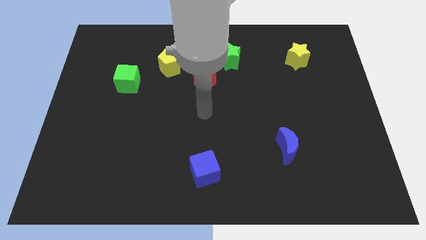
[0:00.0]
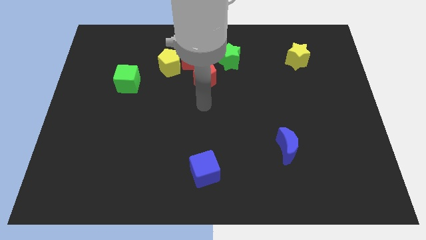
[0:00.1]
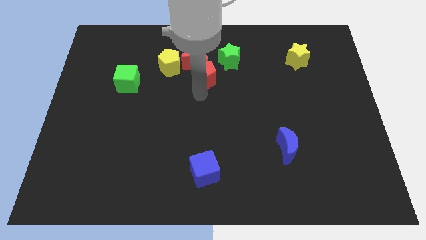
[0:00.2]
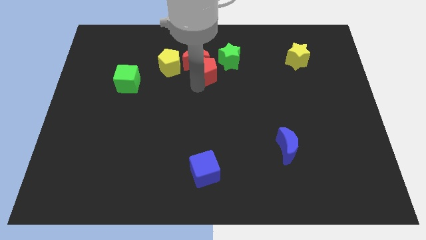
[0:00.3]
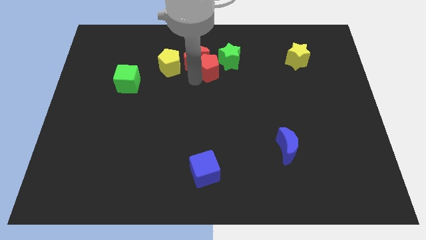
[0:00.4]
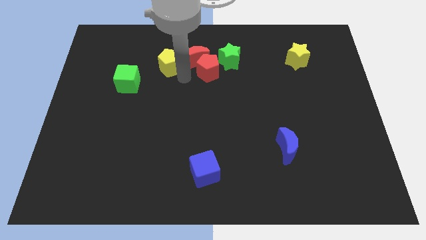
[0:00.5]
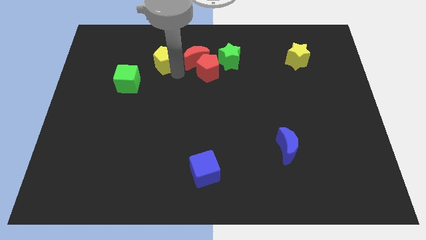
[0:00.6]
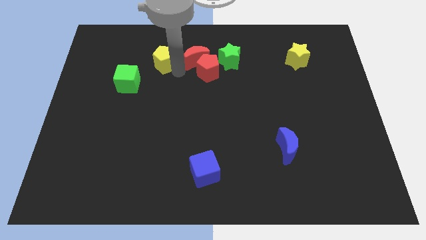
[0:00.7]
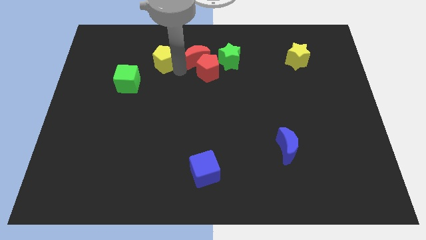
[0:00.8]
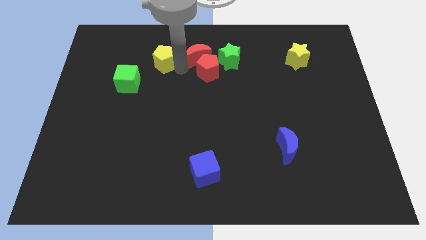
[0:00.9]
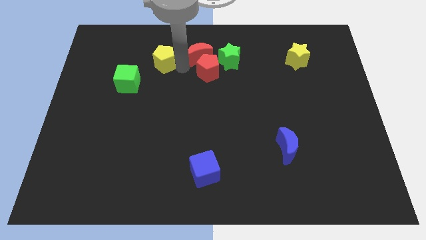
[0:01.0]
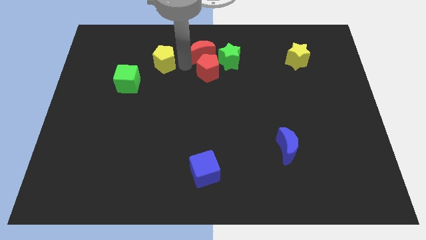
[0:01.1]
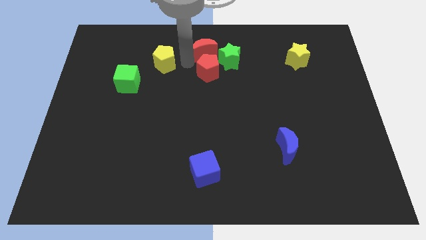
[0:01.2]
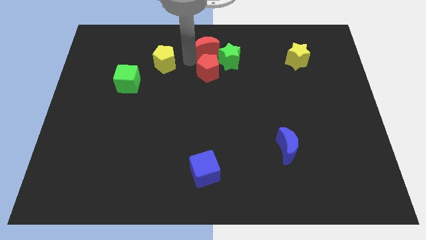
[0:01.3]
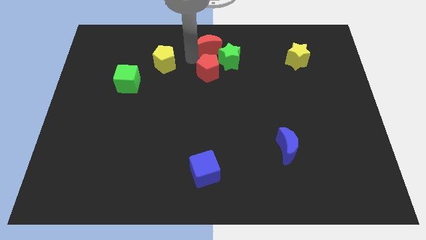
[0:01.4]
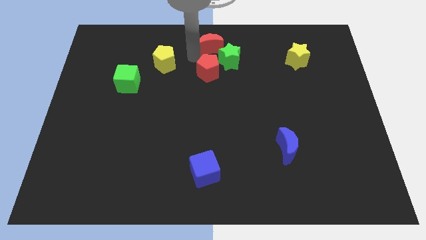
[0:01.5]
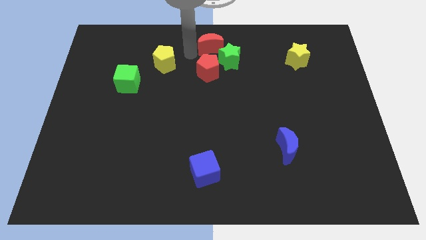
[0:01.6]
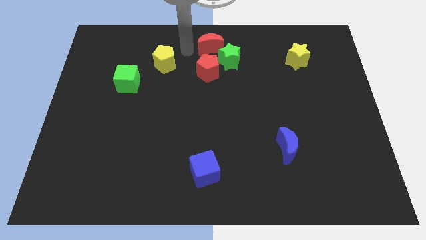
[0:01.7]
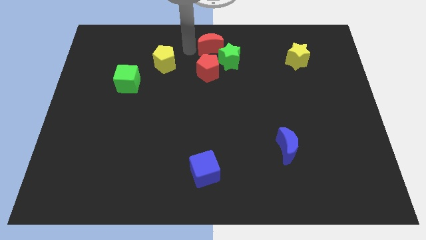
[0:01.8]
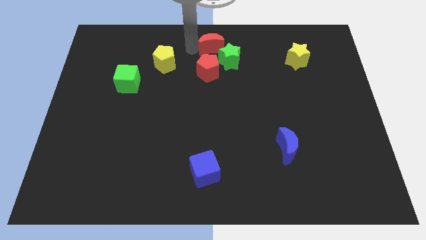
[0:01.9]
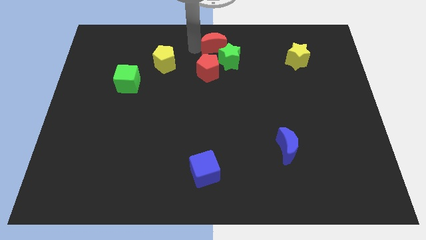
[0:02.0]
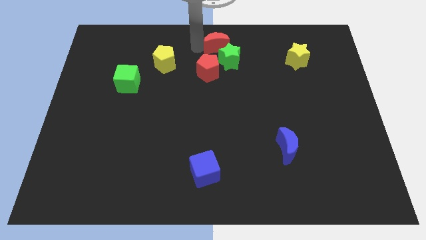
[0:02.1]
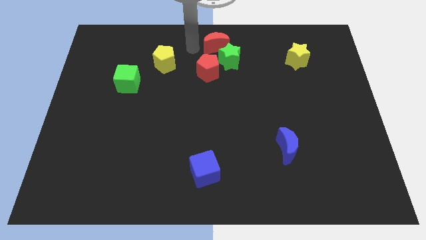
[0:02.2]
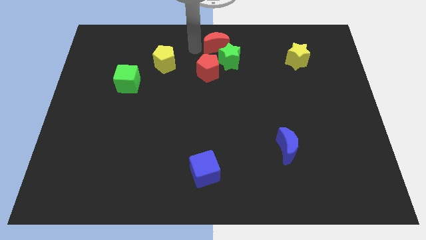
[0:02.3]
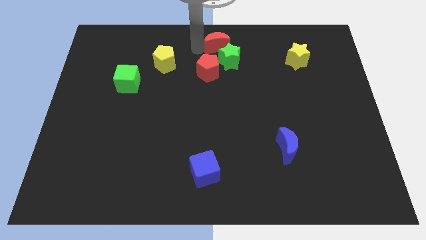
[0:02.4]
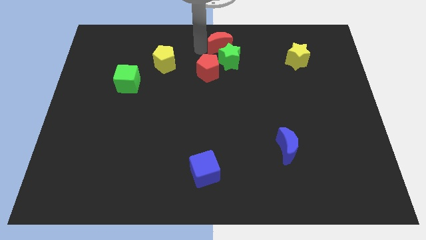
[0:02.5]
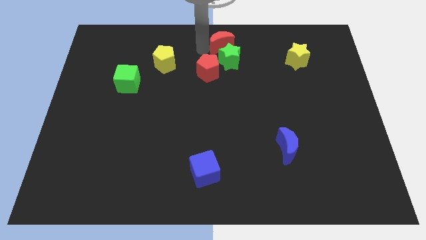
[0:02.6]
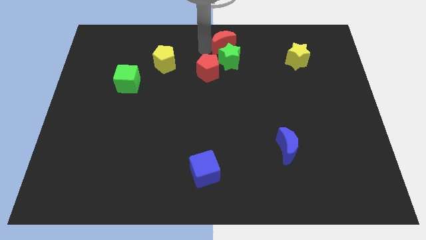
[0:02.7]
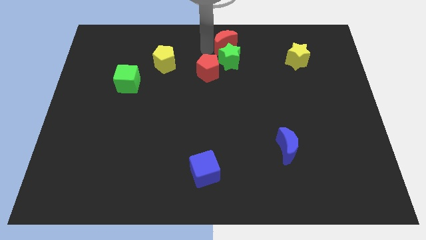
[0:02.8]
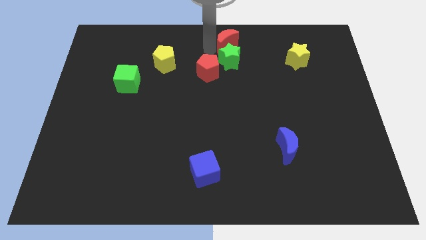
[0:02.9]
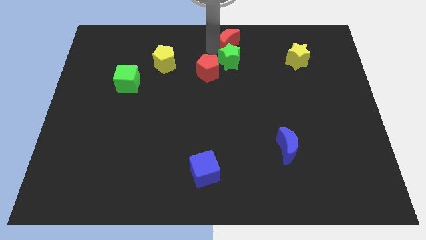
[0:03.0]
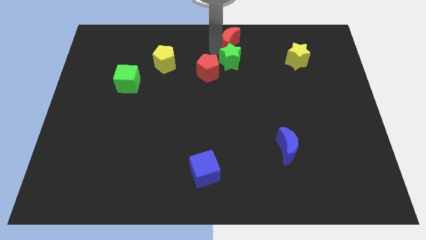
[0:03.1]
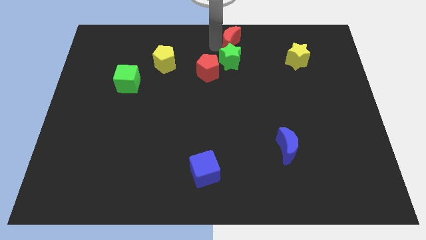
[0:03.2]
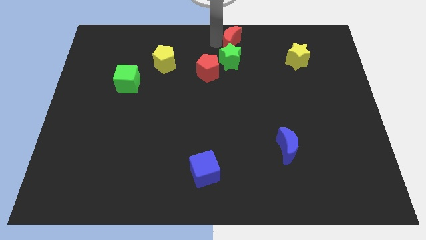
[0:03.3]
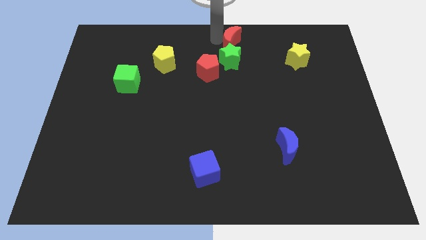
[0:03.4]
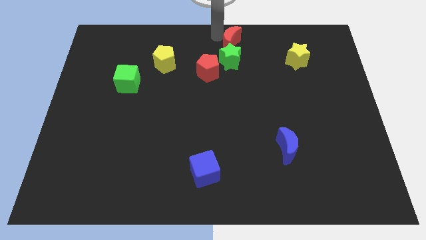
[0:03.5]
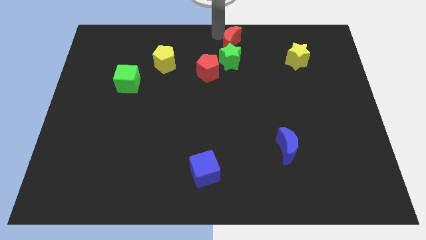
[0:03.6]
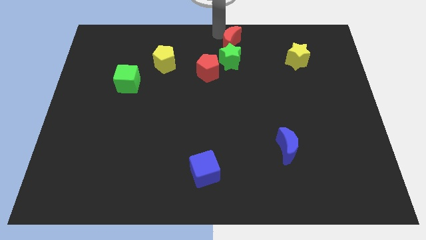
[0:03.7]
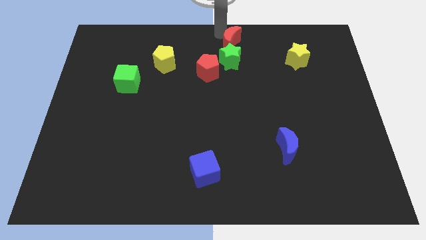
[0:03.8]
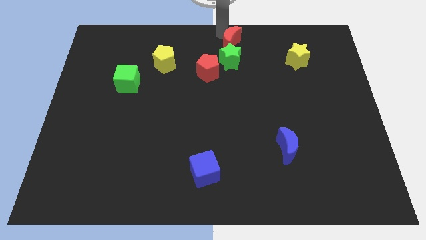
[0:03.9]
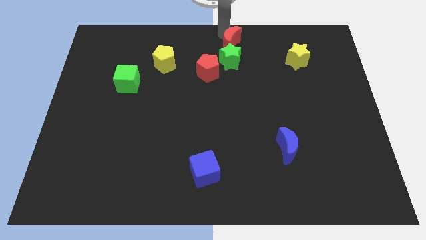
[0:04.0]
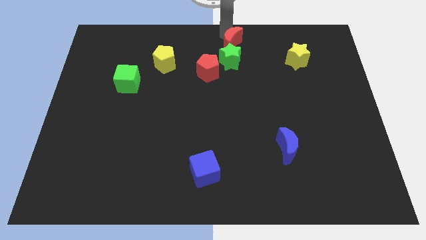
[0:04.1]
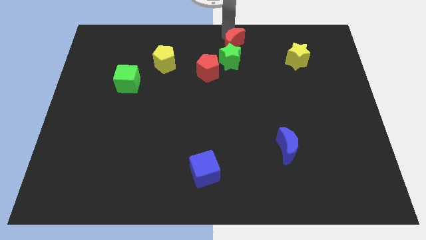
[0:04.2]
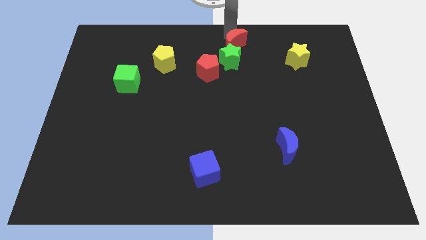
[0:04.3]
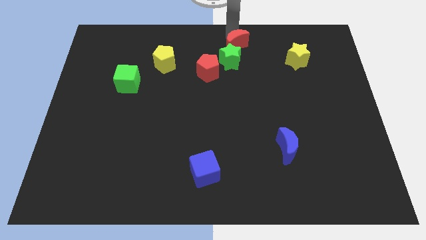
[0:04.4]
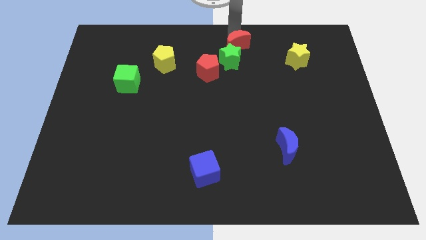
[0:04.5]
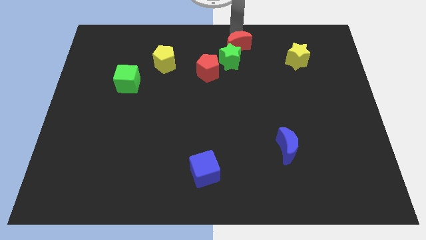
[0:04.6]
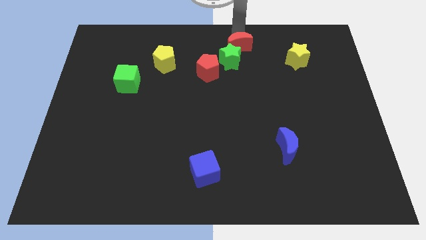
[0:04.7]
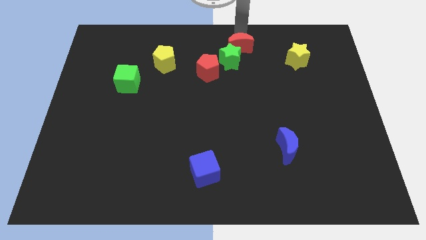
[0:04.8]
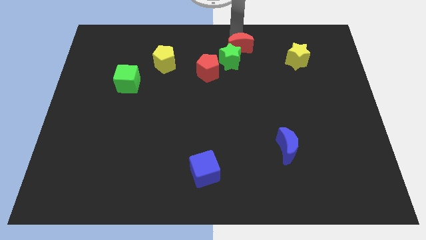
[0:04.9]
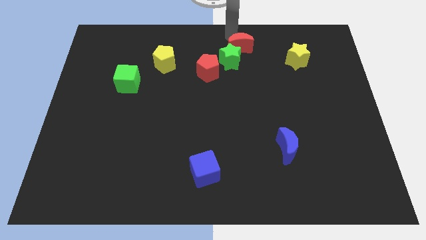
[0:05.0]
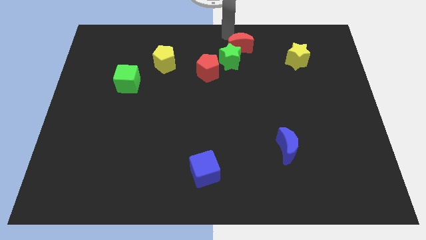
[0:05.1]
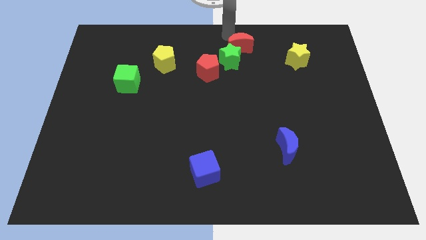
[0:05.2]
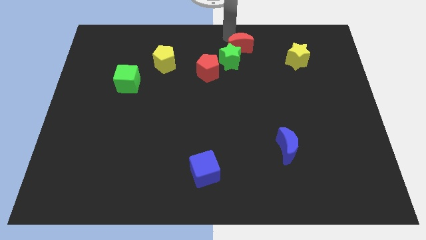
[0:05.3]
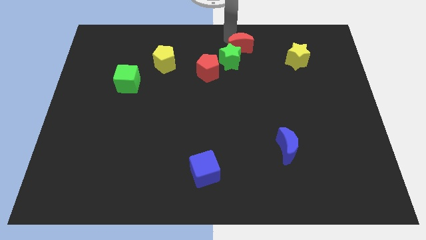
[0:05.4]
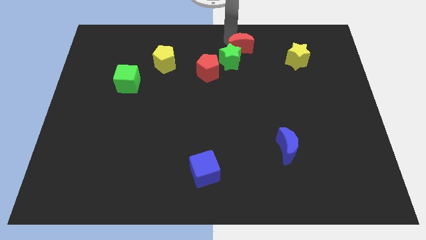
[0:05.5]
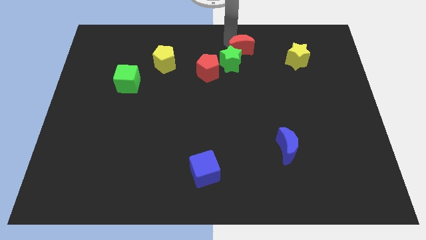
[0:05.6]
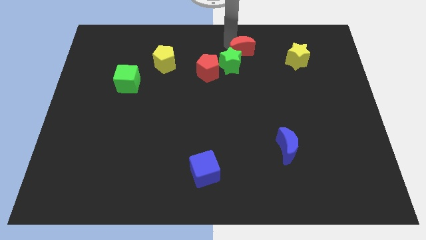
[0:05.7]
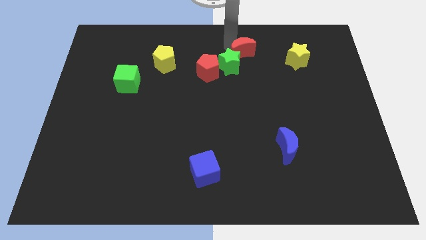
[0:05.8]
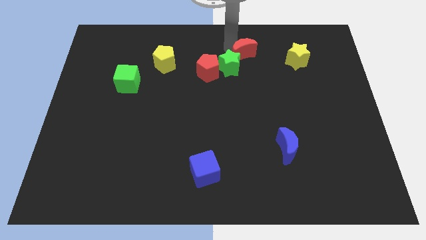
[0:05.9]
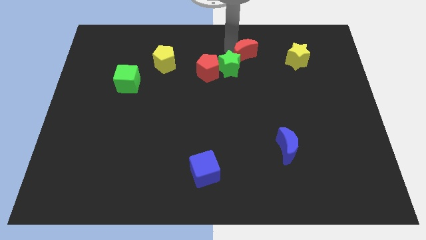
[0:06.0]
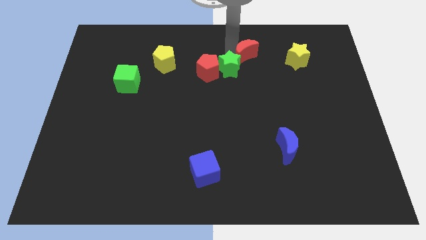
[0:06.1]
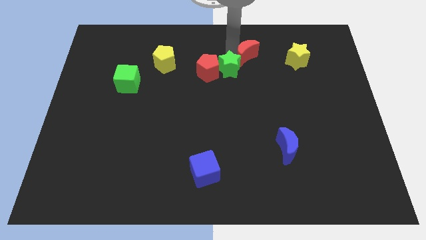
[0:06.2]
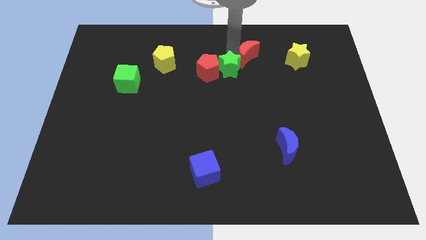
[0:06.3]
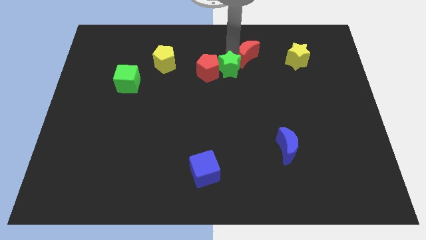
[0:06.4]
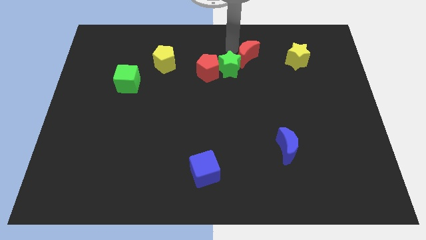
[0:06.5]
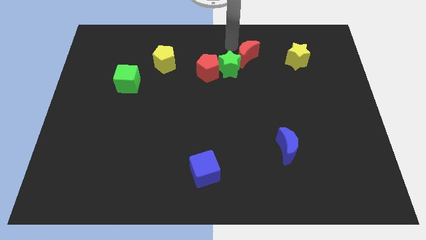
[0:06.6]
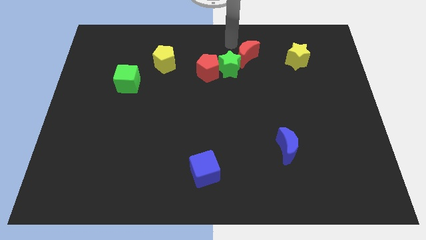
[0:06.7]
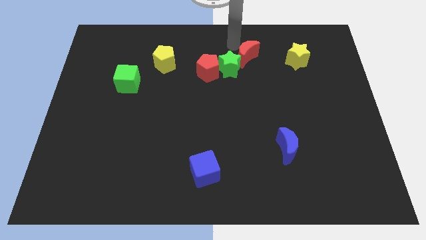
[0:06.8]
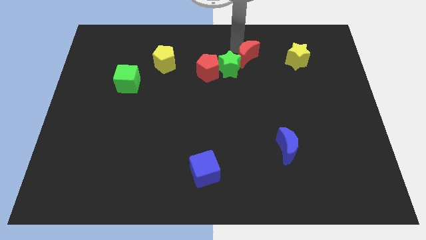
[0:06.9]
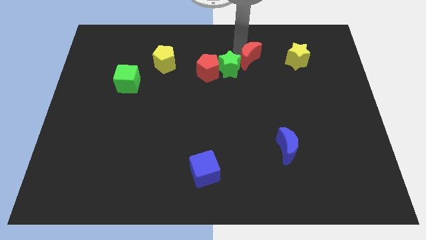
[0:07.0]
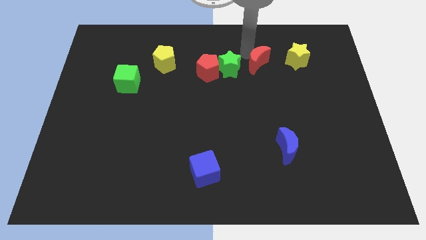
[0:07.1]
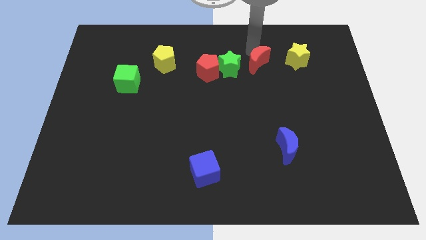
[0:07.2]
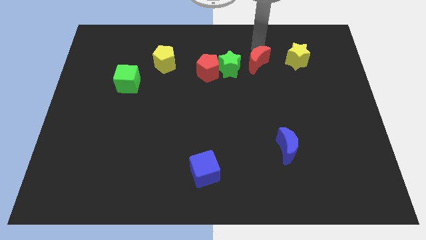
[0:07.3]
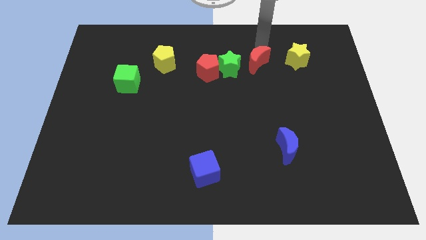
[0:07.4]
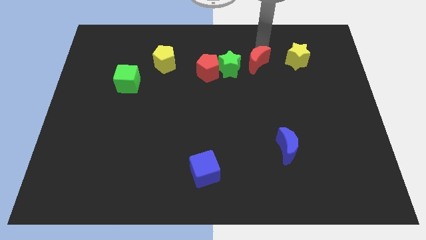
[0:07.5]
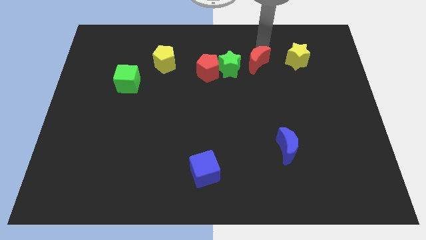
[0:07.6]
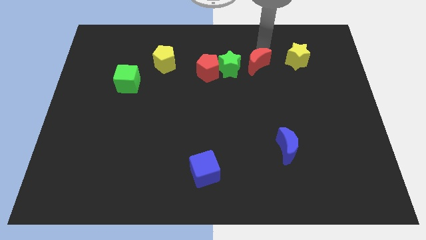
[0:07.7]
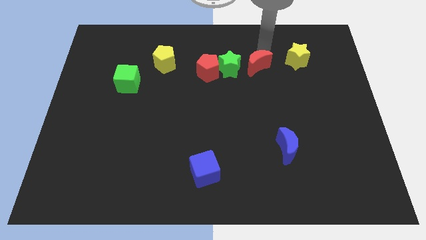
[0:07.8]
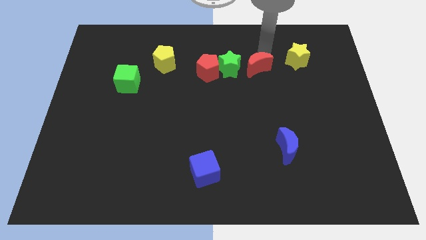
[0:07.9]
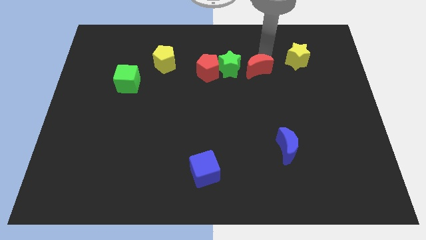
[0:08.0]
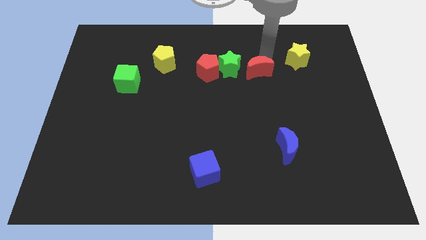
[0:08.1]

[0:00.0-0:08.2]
move the red moon diagonally down and to the right of the green star
